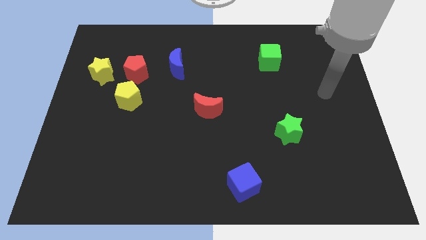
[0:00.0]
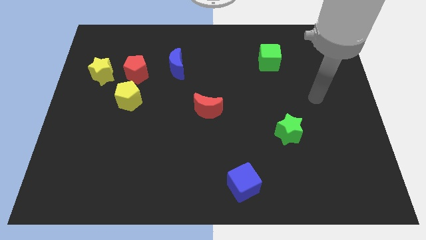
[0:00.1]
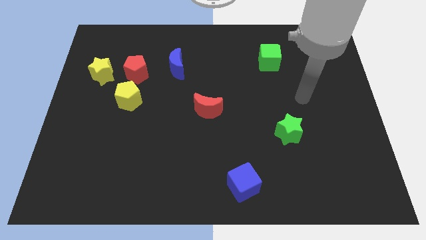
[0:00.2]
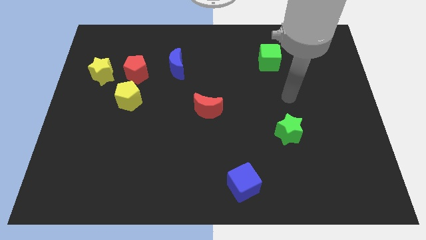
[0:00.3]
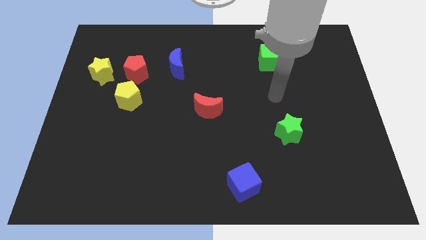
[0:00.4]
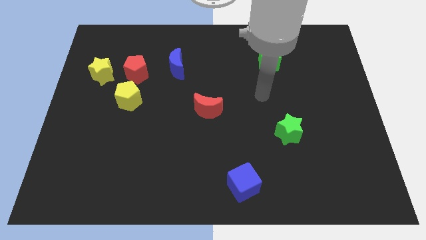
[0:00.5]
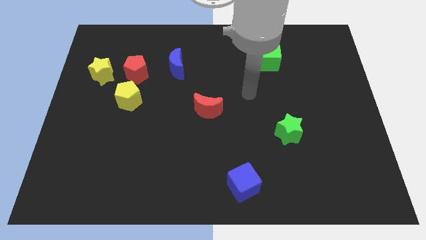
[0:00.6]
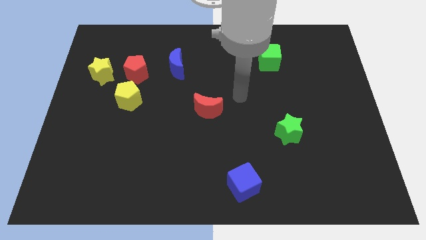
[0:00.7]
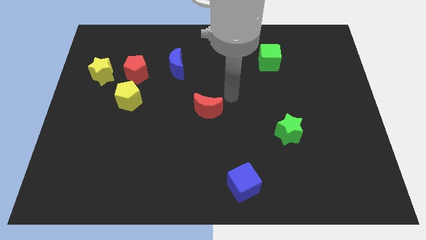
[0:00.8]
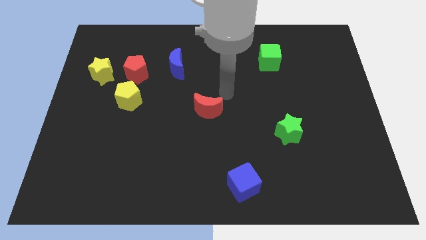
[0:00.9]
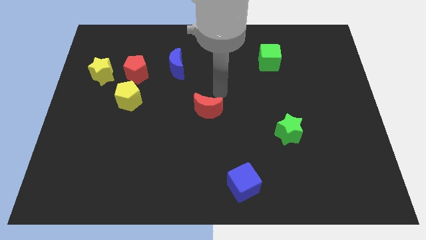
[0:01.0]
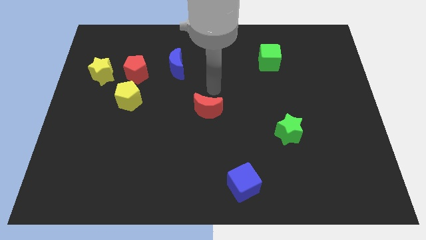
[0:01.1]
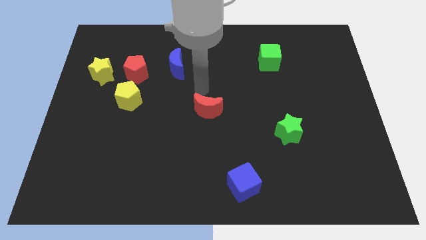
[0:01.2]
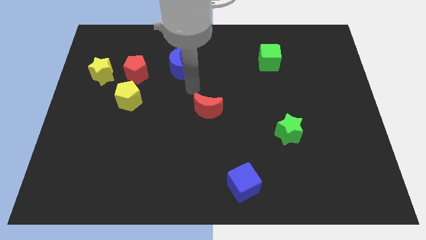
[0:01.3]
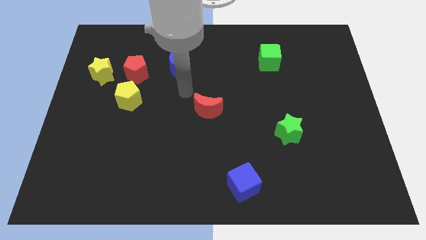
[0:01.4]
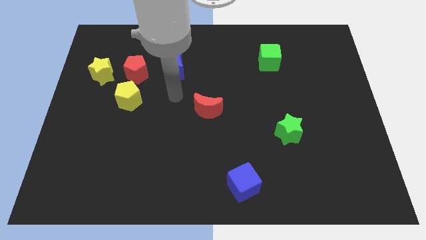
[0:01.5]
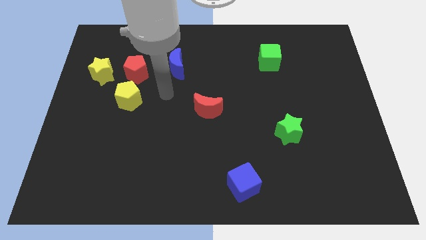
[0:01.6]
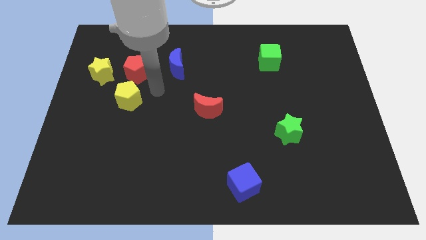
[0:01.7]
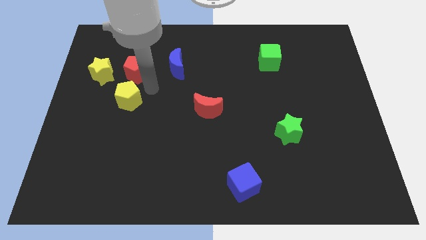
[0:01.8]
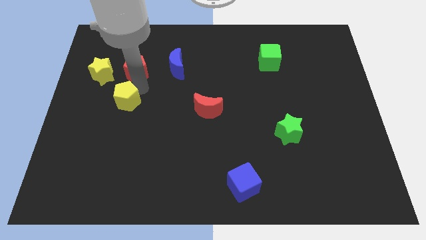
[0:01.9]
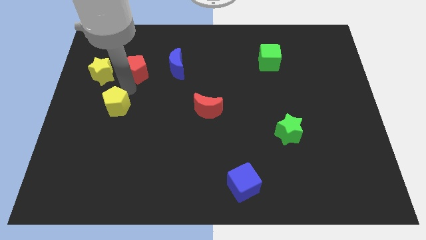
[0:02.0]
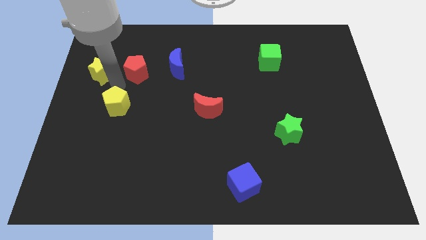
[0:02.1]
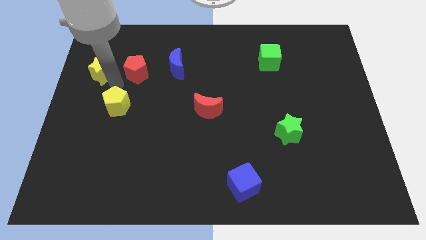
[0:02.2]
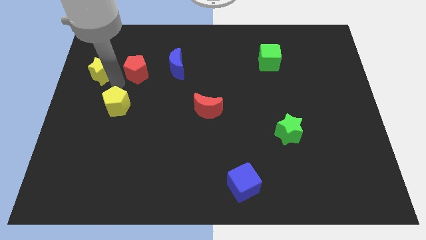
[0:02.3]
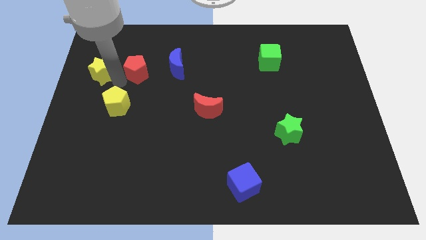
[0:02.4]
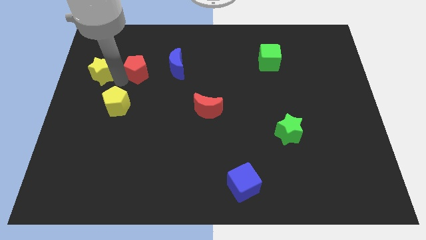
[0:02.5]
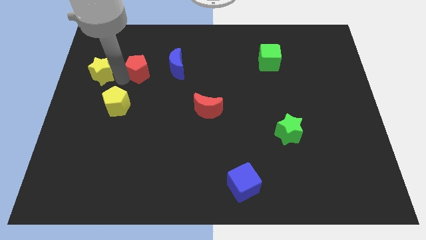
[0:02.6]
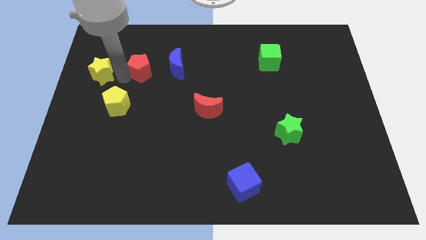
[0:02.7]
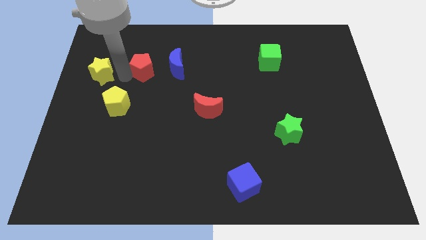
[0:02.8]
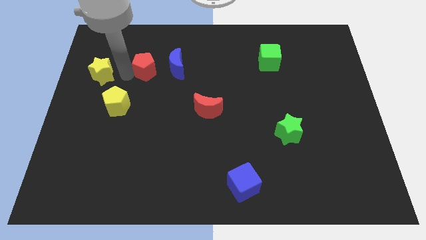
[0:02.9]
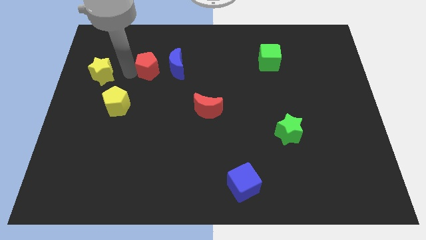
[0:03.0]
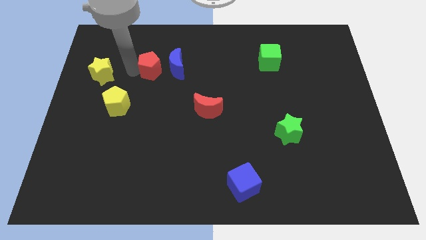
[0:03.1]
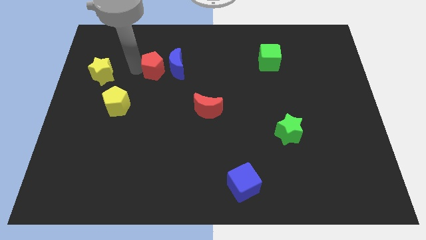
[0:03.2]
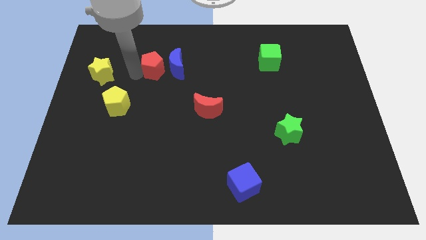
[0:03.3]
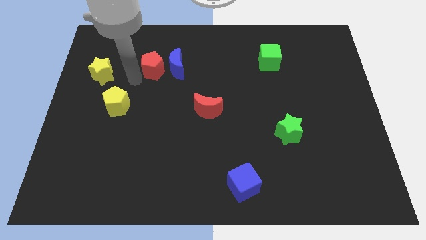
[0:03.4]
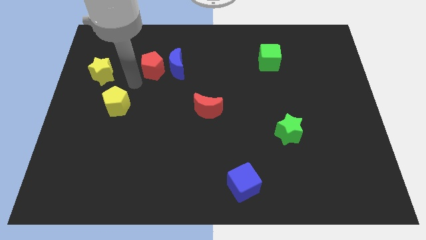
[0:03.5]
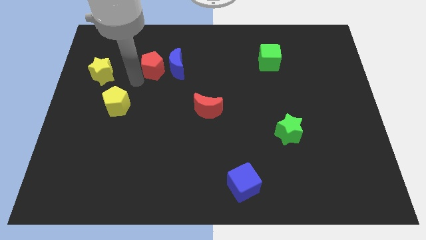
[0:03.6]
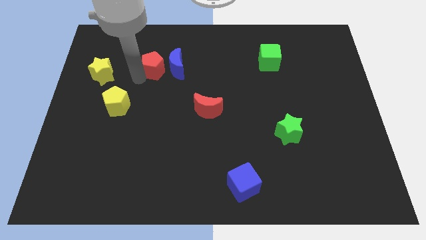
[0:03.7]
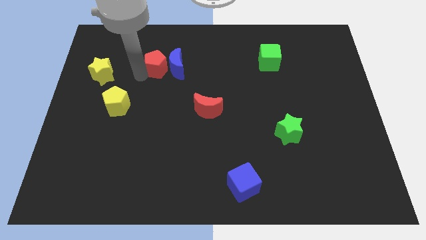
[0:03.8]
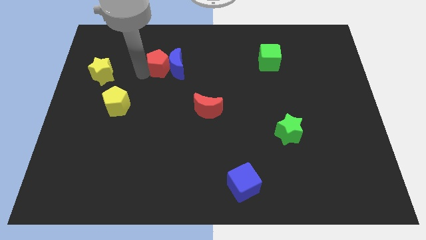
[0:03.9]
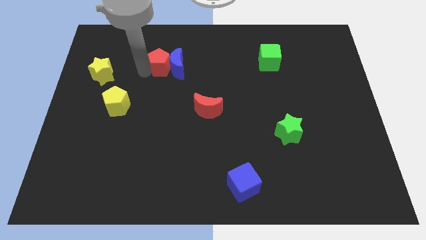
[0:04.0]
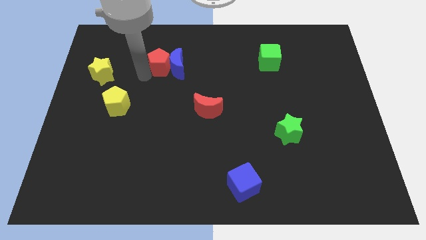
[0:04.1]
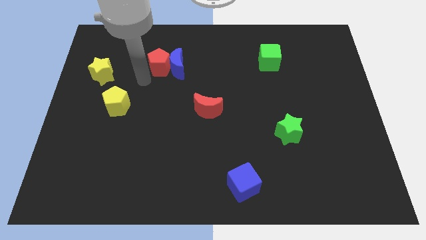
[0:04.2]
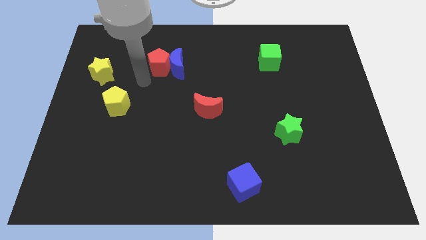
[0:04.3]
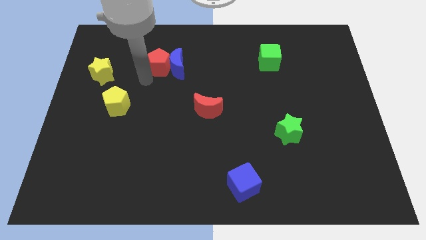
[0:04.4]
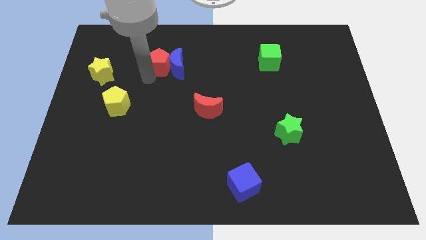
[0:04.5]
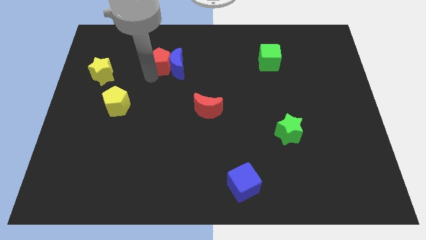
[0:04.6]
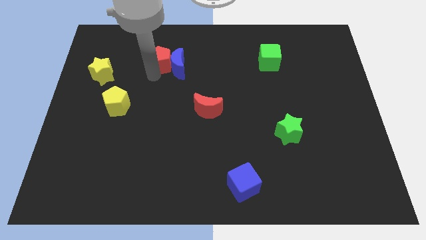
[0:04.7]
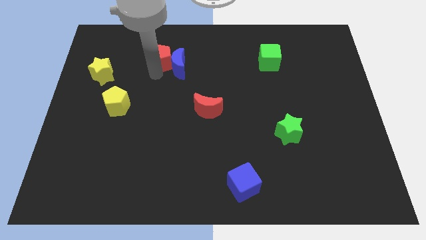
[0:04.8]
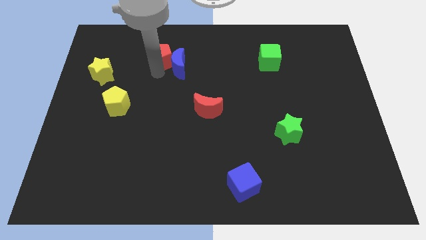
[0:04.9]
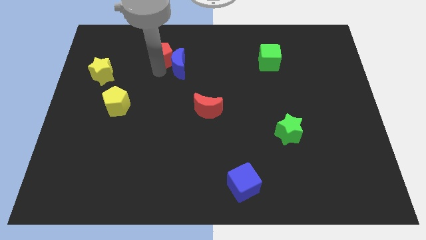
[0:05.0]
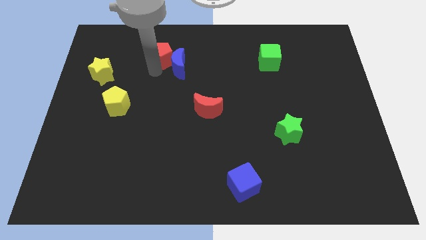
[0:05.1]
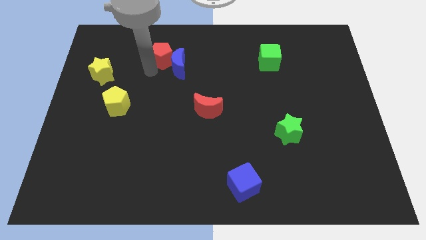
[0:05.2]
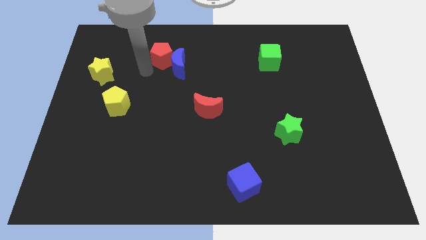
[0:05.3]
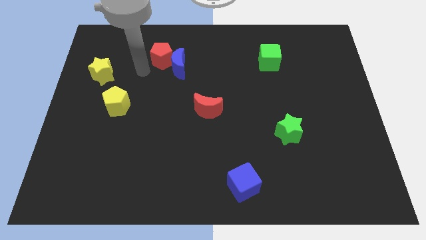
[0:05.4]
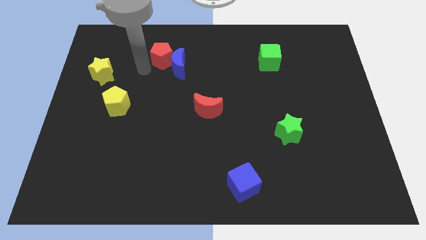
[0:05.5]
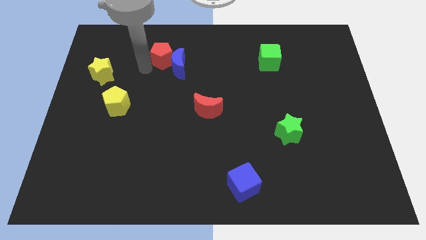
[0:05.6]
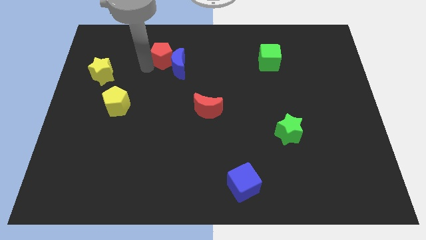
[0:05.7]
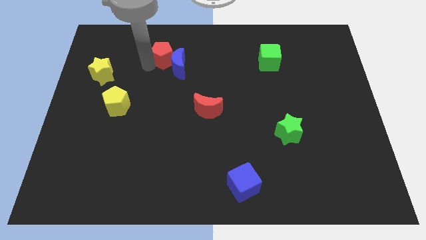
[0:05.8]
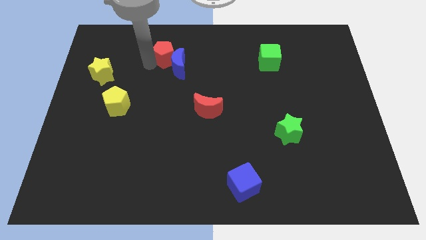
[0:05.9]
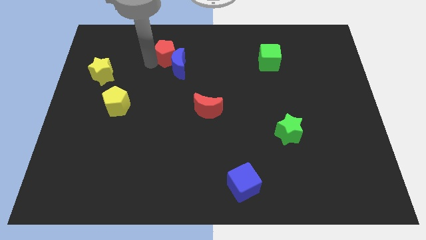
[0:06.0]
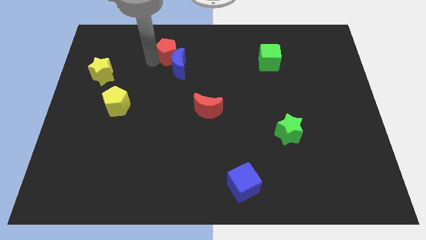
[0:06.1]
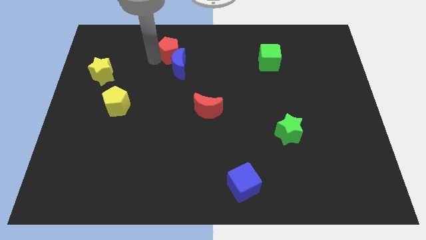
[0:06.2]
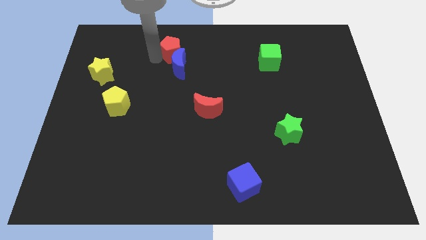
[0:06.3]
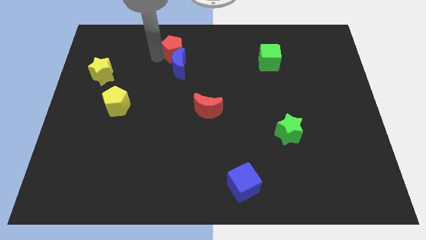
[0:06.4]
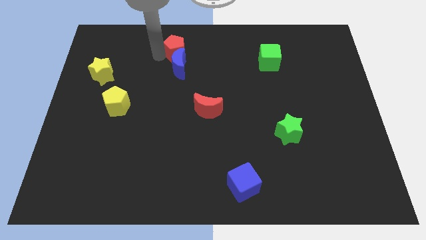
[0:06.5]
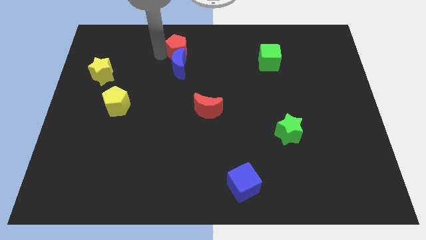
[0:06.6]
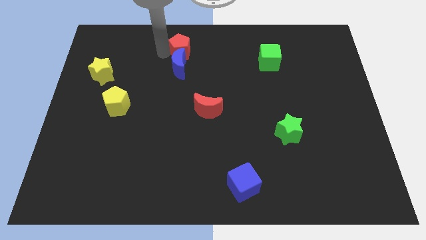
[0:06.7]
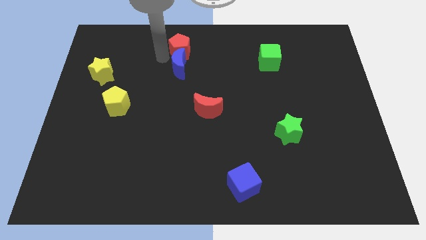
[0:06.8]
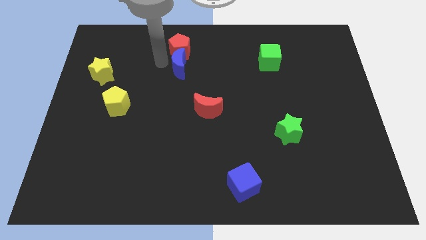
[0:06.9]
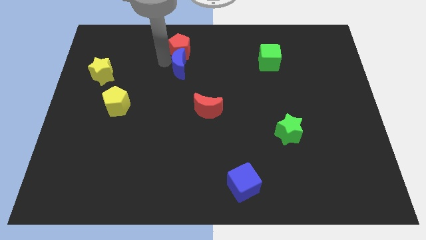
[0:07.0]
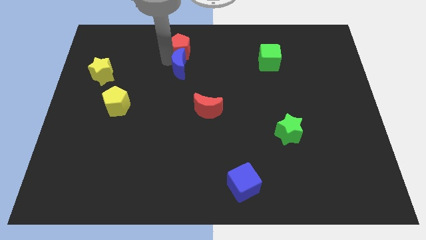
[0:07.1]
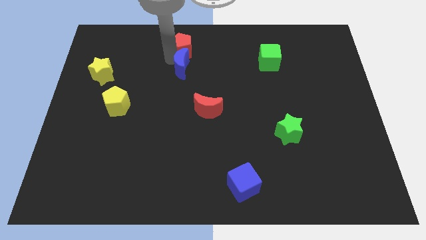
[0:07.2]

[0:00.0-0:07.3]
push the red pentagon to the towards your base
